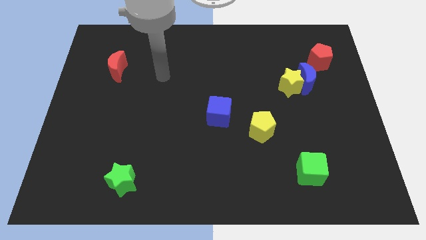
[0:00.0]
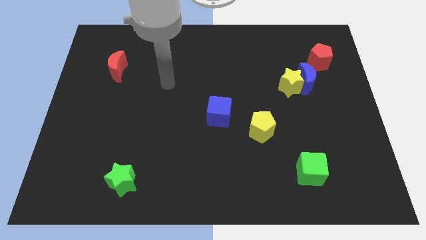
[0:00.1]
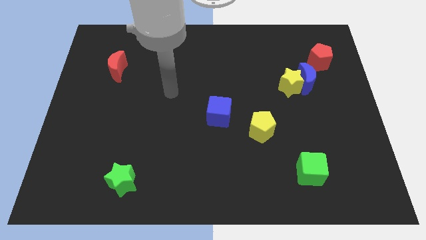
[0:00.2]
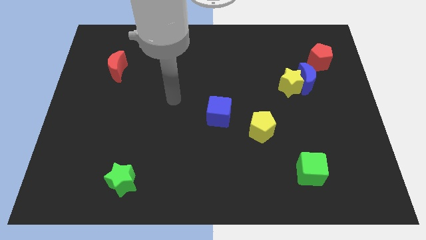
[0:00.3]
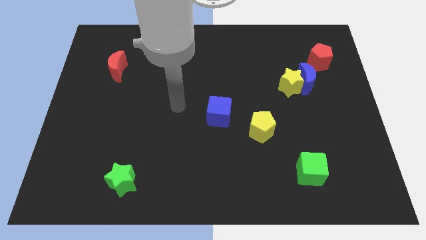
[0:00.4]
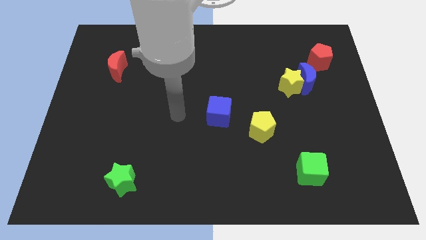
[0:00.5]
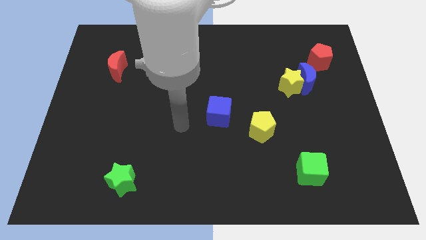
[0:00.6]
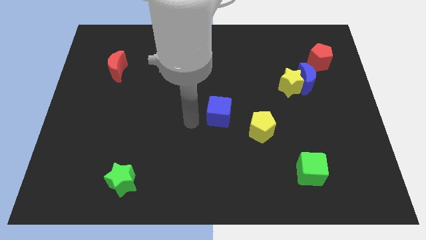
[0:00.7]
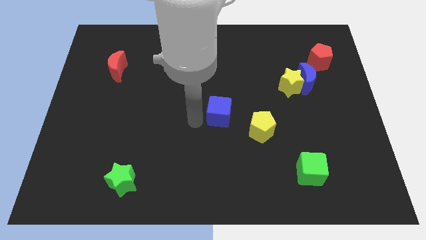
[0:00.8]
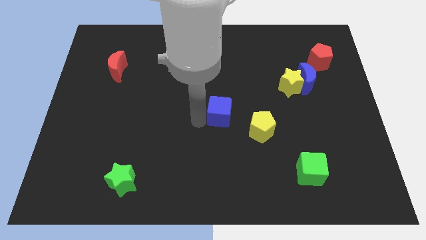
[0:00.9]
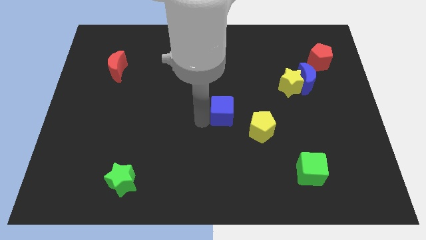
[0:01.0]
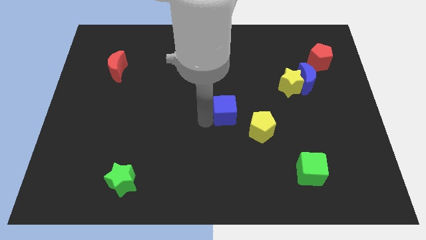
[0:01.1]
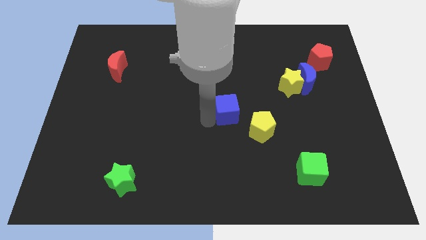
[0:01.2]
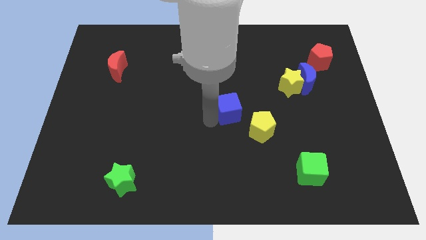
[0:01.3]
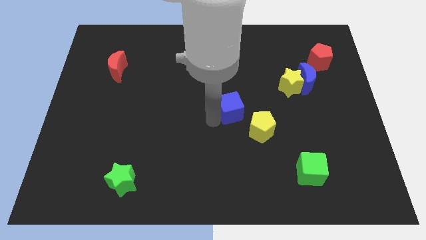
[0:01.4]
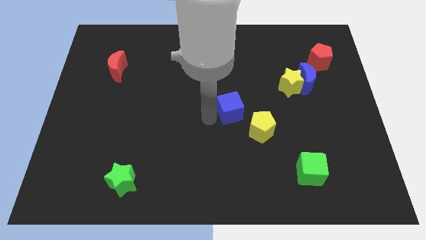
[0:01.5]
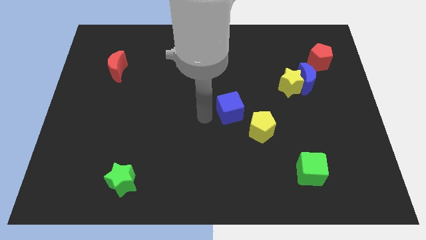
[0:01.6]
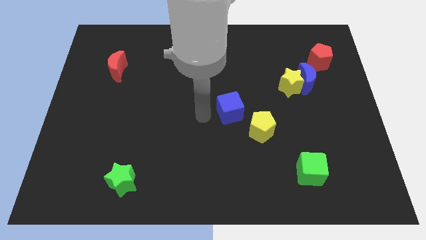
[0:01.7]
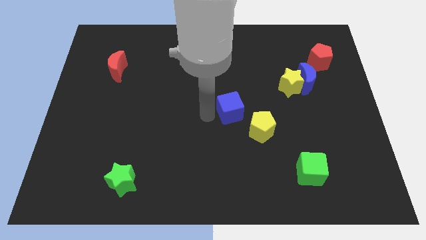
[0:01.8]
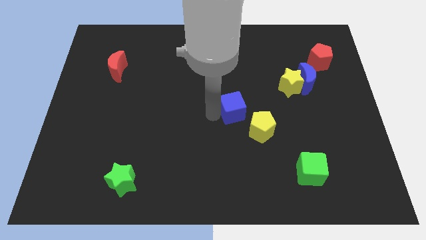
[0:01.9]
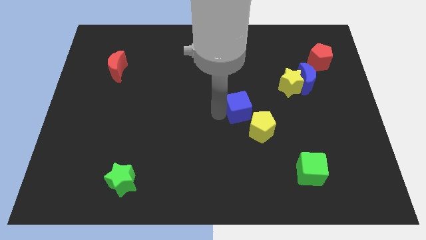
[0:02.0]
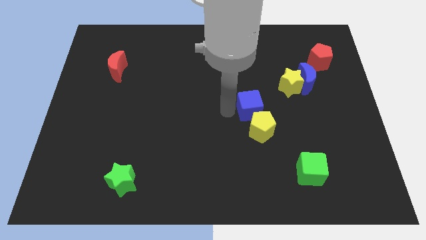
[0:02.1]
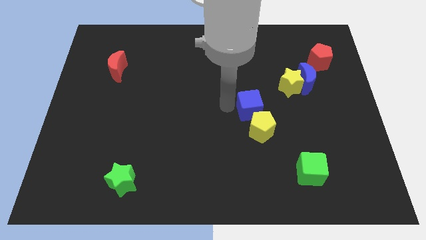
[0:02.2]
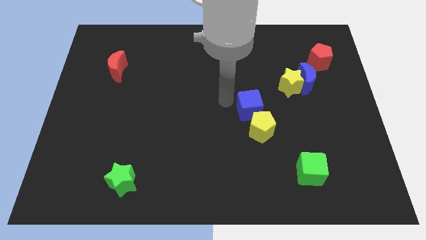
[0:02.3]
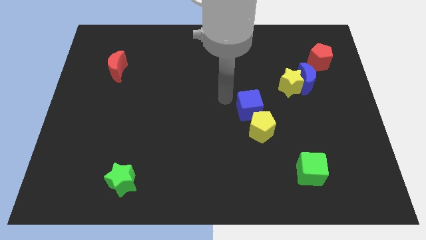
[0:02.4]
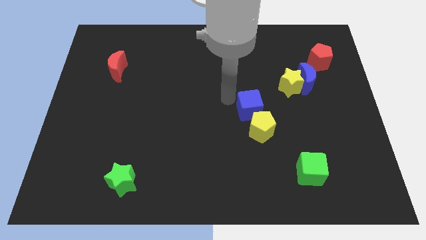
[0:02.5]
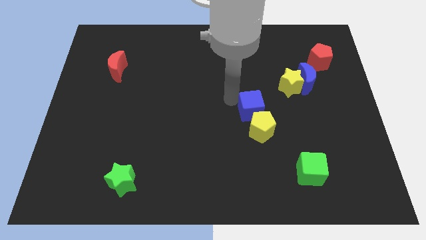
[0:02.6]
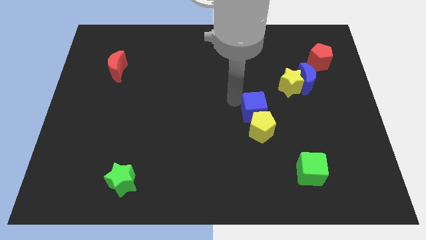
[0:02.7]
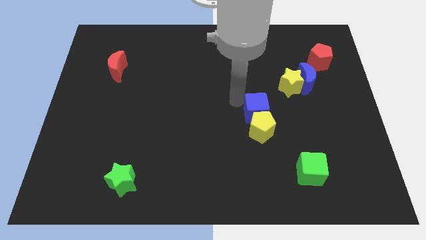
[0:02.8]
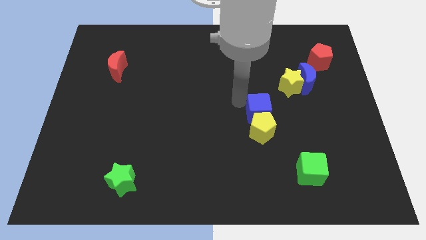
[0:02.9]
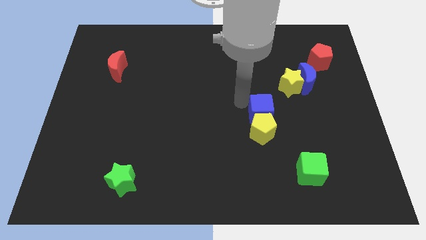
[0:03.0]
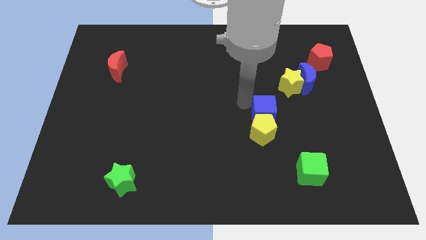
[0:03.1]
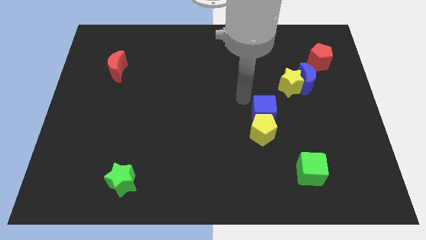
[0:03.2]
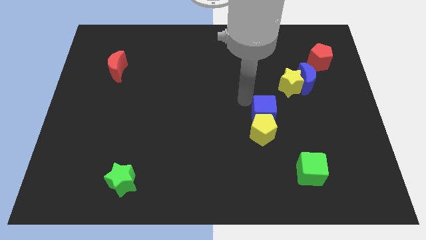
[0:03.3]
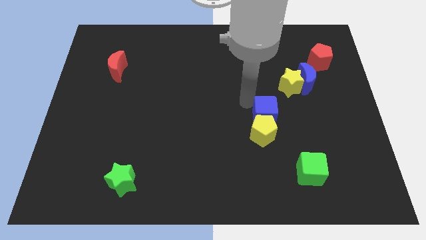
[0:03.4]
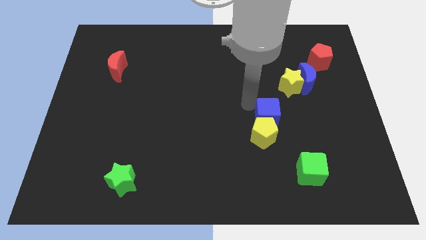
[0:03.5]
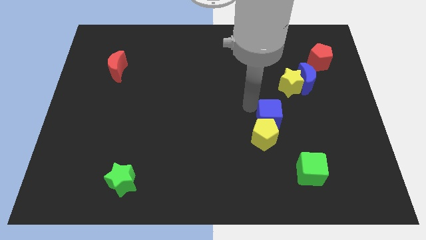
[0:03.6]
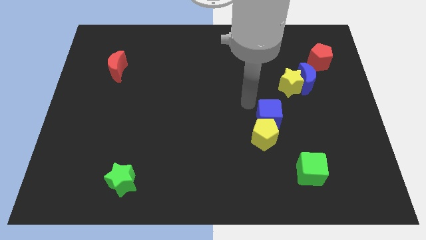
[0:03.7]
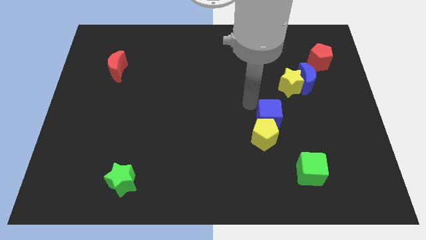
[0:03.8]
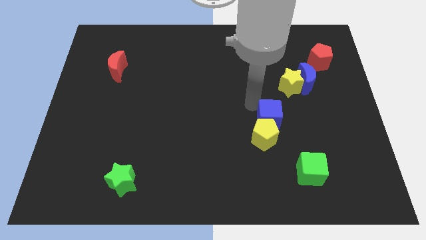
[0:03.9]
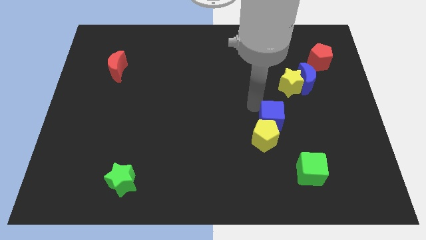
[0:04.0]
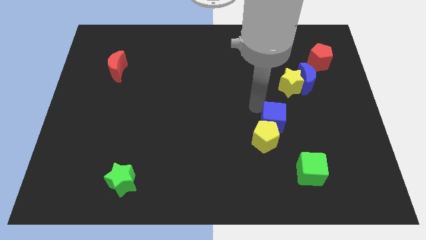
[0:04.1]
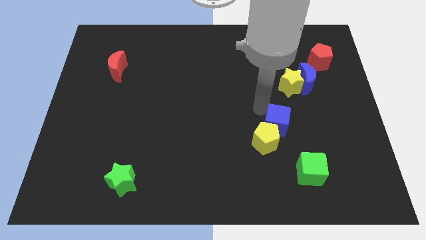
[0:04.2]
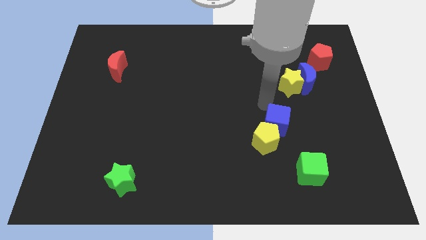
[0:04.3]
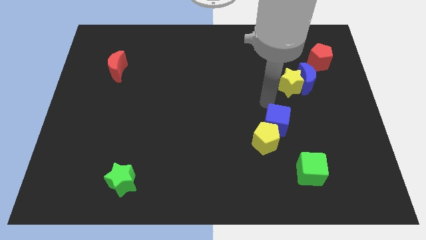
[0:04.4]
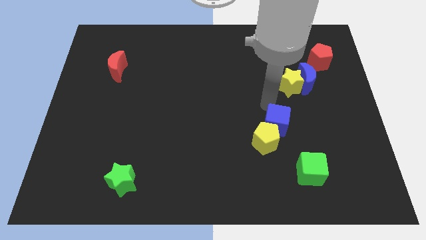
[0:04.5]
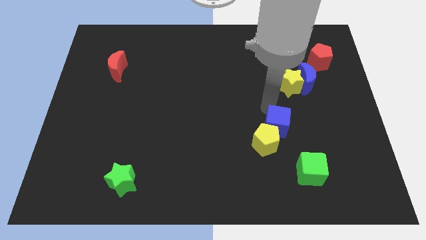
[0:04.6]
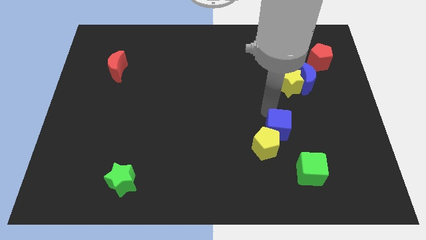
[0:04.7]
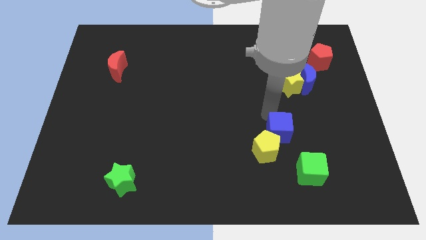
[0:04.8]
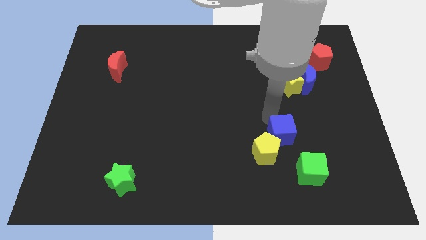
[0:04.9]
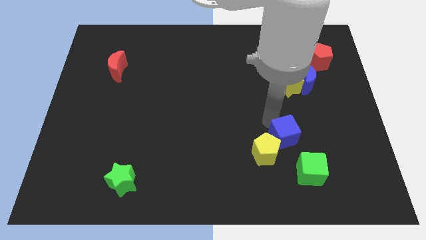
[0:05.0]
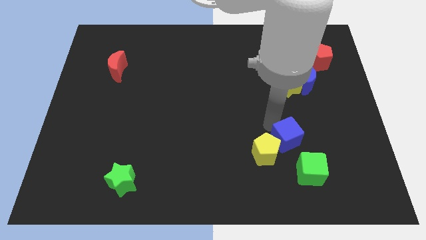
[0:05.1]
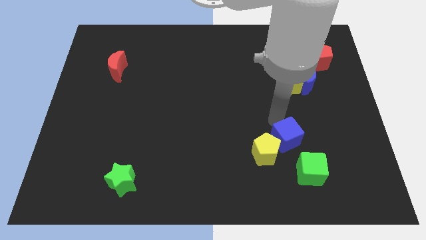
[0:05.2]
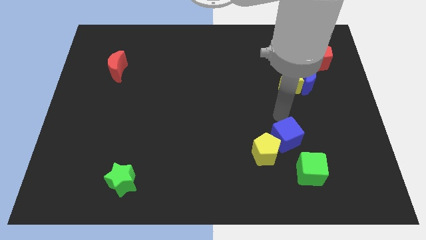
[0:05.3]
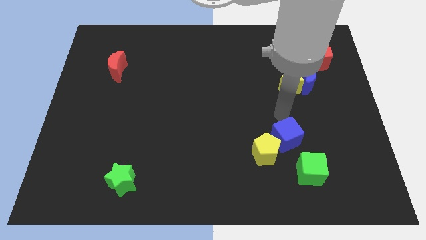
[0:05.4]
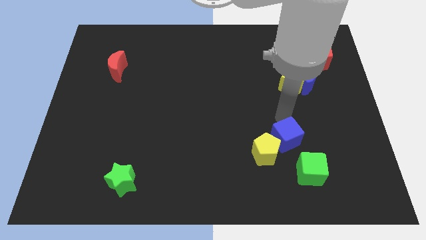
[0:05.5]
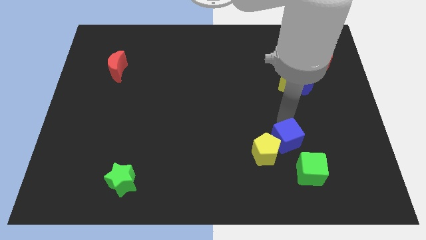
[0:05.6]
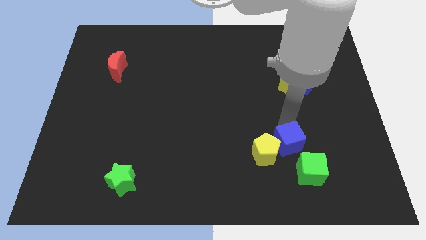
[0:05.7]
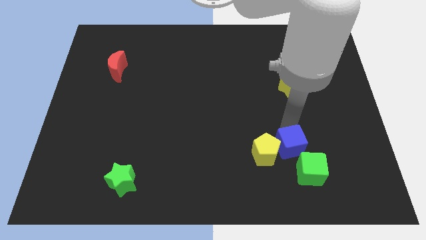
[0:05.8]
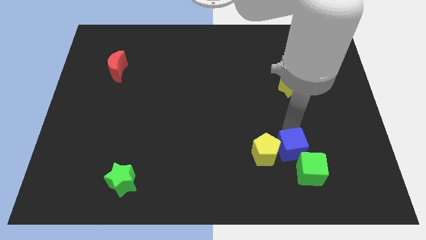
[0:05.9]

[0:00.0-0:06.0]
move the blue cube diagonally down and to the right of the yellow pentagon

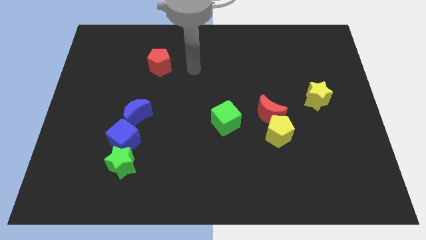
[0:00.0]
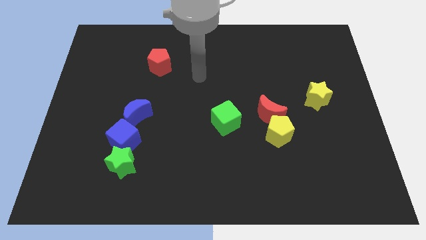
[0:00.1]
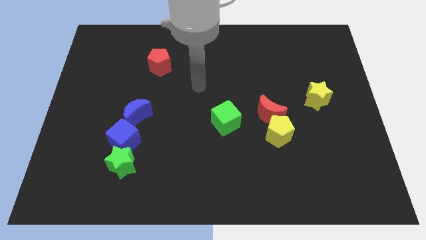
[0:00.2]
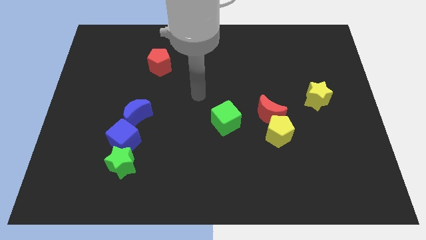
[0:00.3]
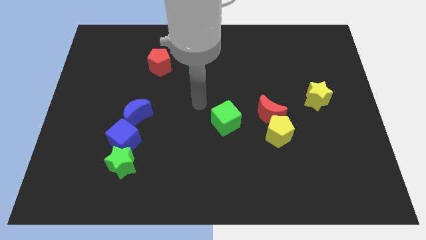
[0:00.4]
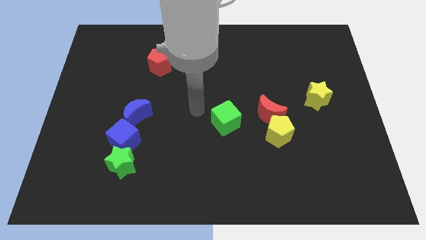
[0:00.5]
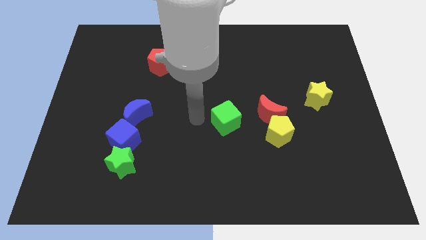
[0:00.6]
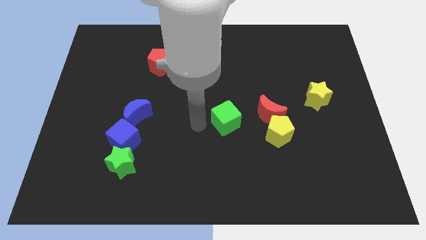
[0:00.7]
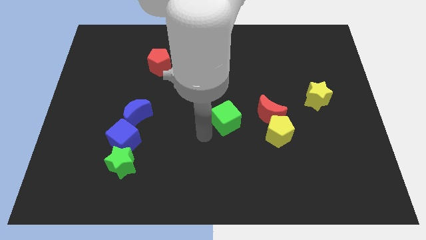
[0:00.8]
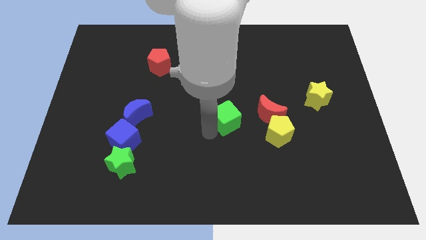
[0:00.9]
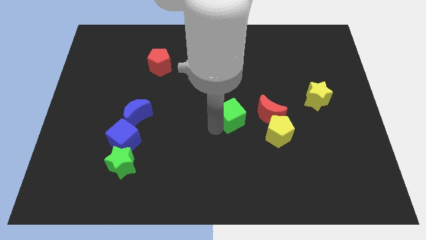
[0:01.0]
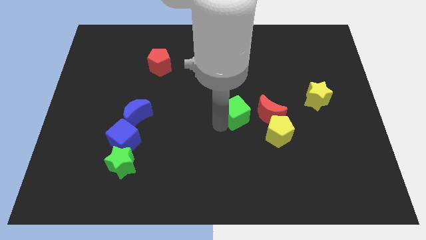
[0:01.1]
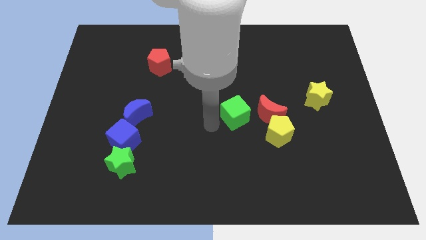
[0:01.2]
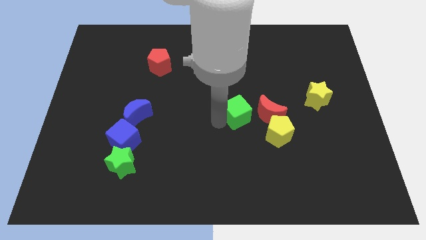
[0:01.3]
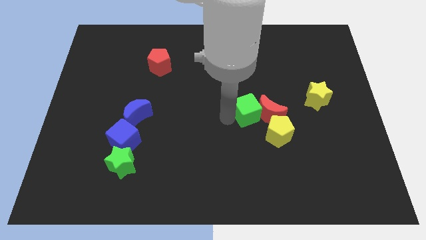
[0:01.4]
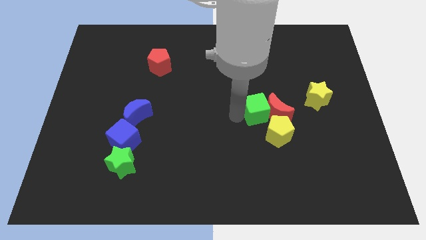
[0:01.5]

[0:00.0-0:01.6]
slide the green cube to the left of the yellow star

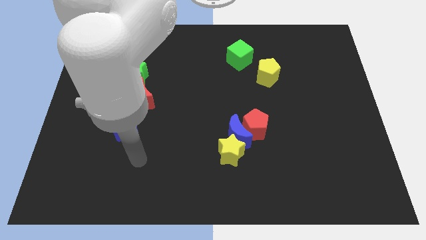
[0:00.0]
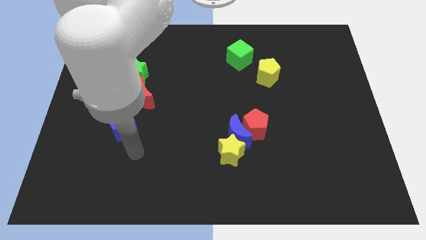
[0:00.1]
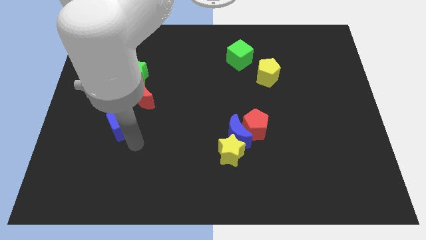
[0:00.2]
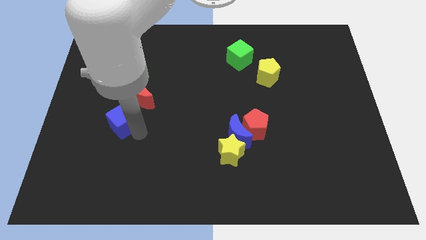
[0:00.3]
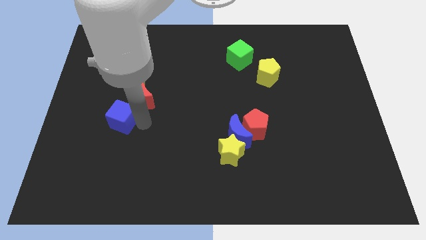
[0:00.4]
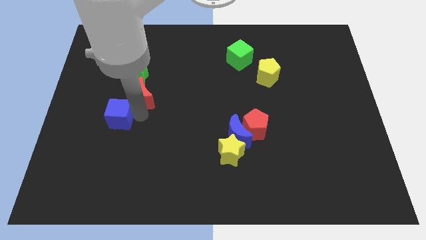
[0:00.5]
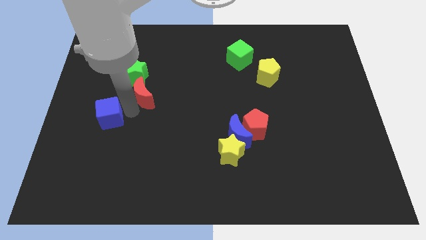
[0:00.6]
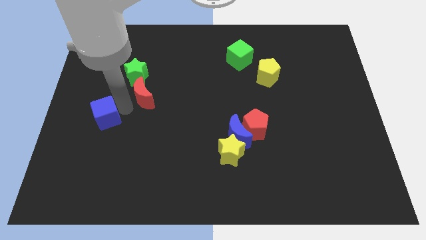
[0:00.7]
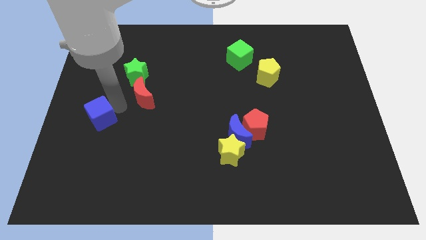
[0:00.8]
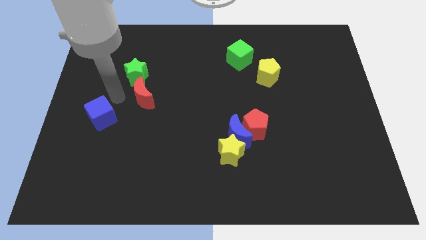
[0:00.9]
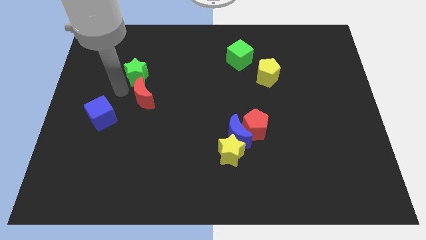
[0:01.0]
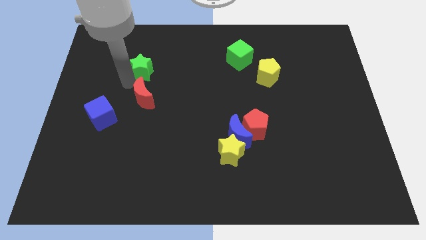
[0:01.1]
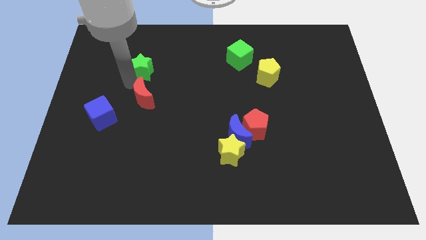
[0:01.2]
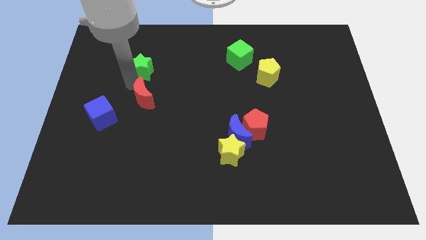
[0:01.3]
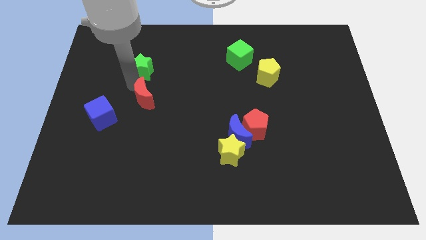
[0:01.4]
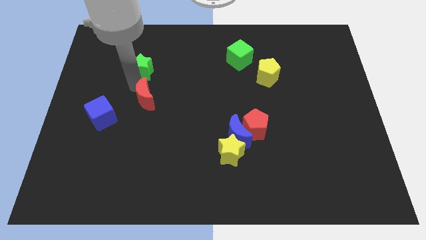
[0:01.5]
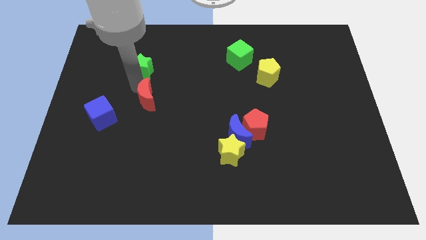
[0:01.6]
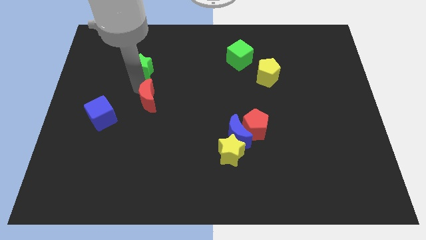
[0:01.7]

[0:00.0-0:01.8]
move the red moon just right of the blue cube
